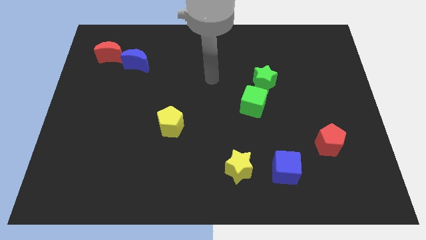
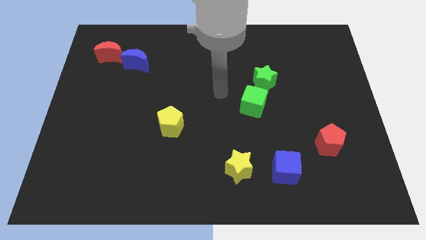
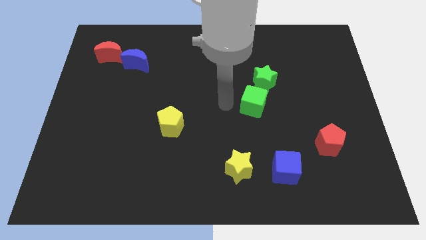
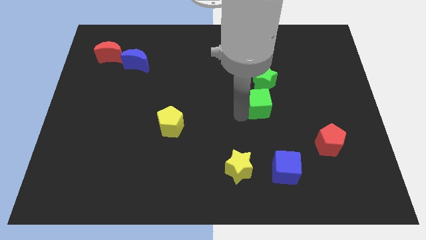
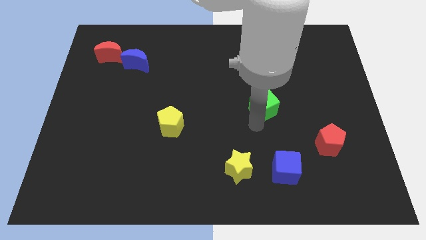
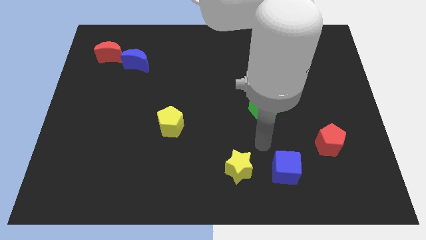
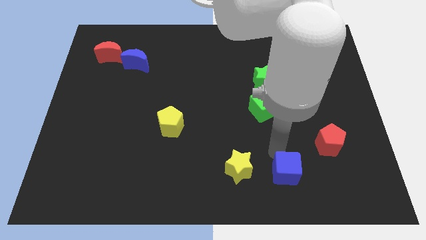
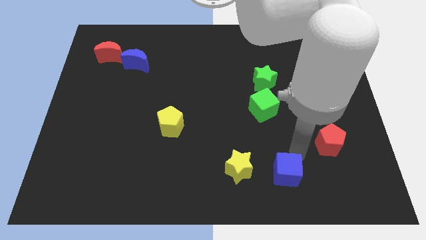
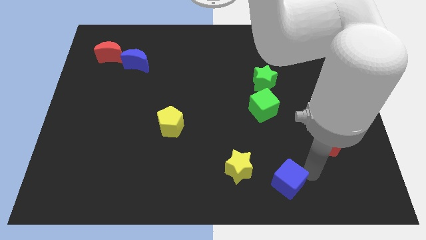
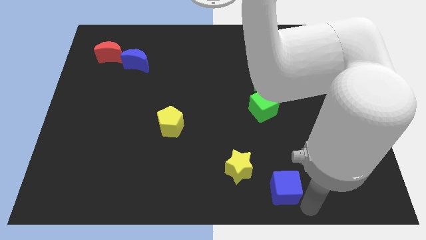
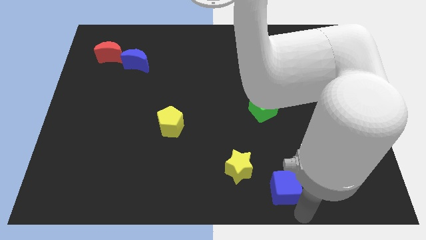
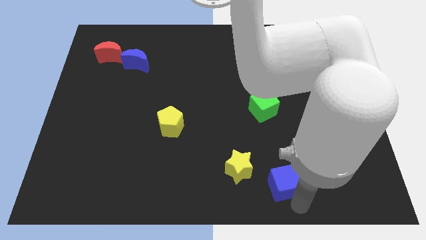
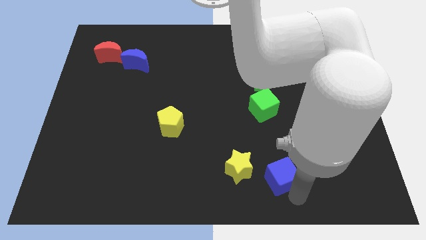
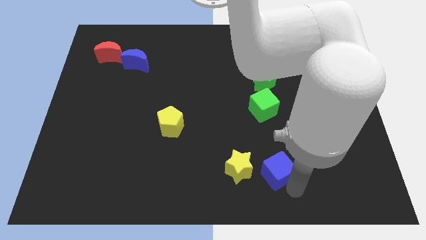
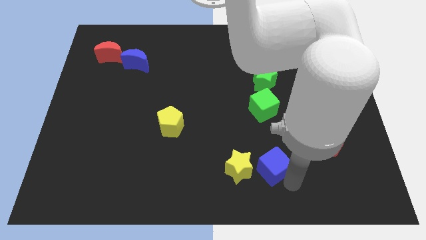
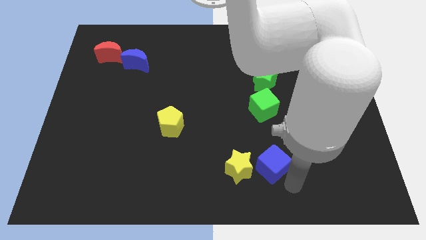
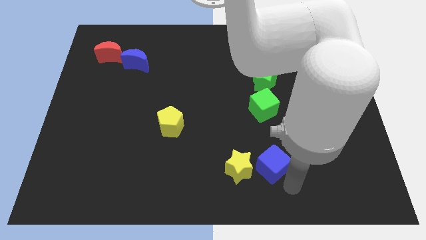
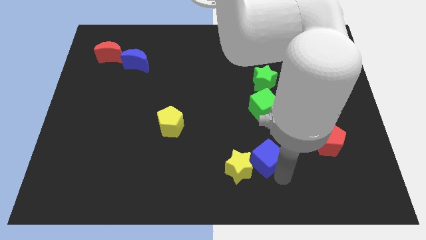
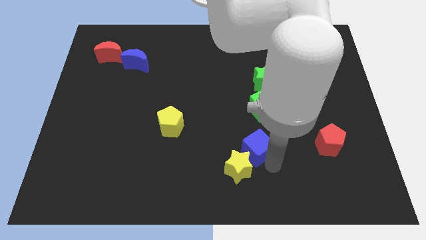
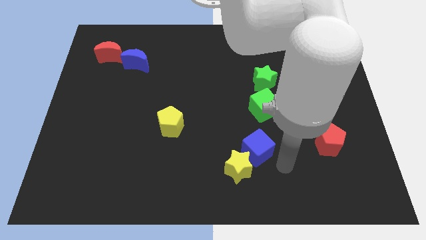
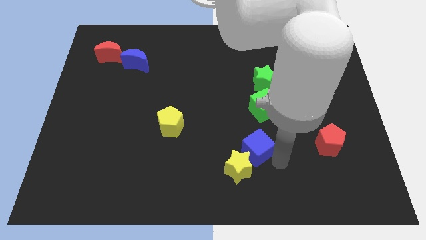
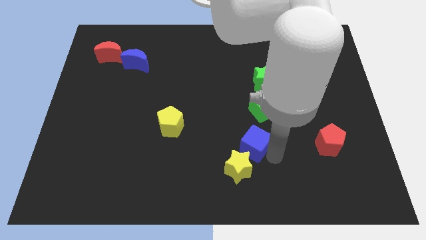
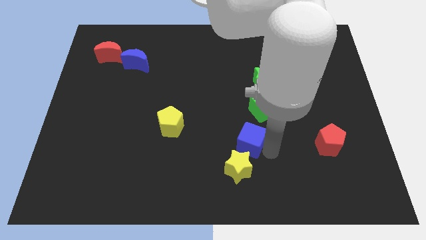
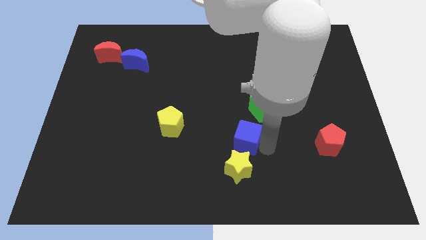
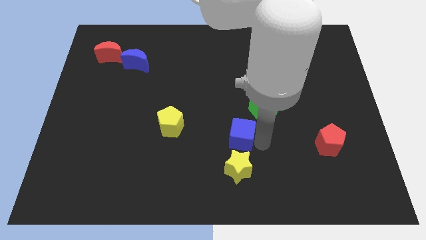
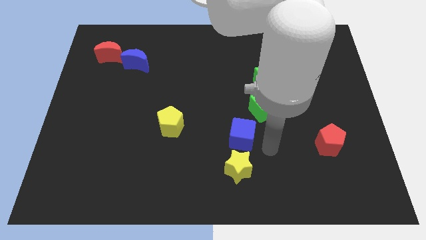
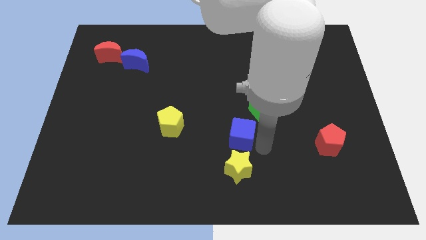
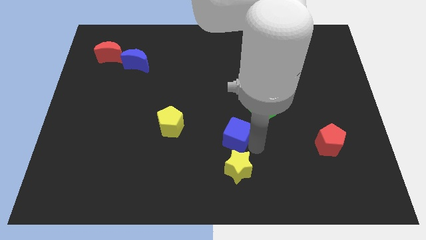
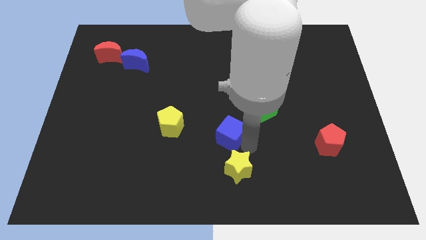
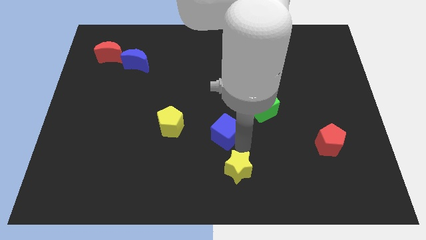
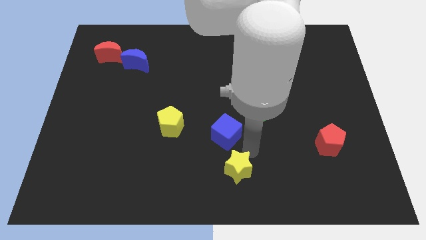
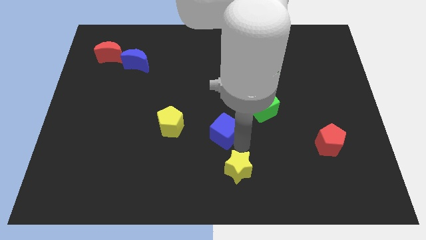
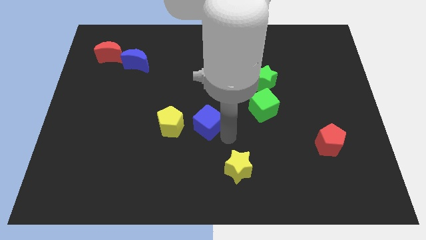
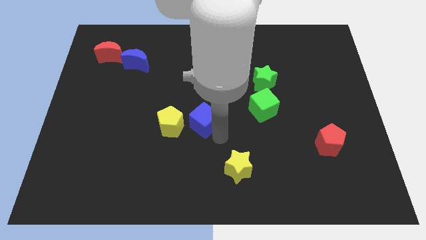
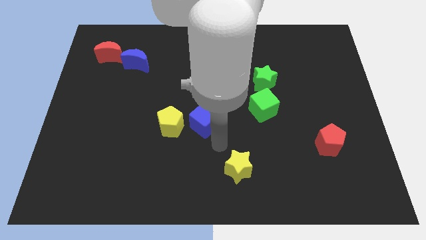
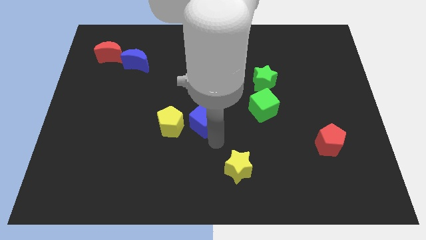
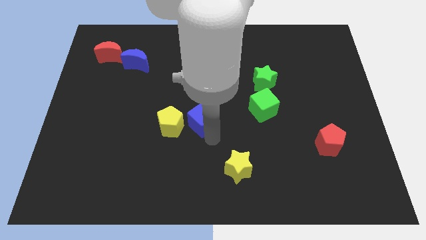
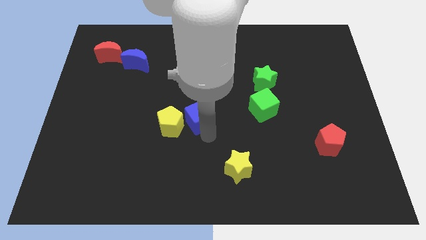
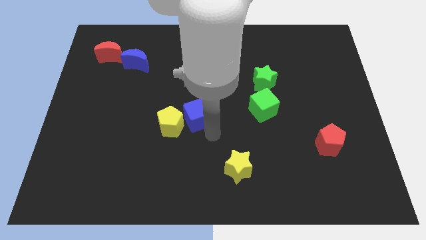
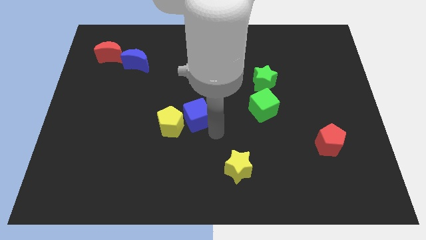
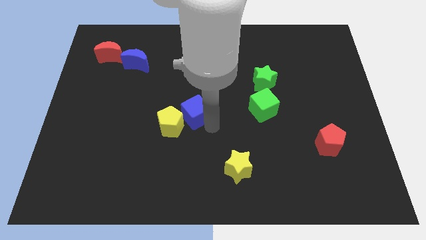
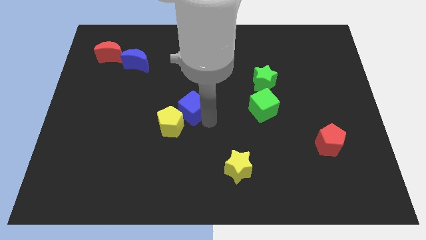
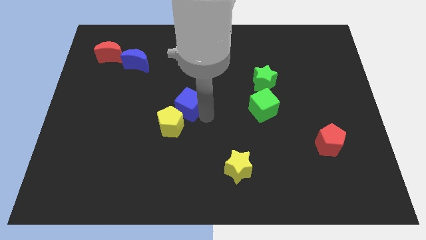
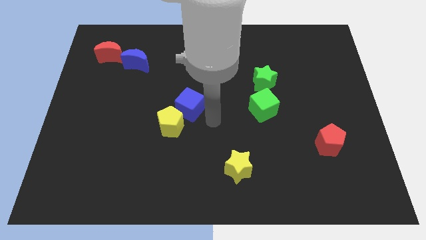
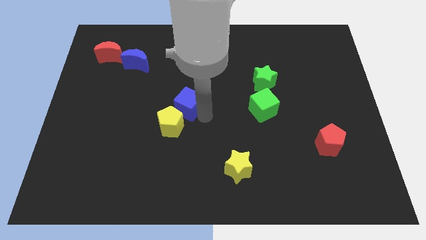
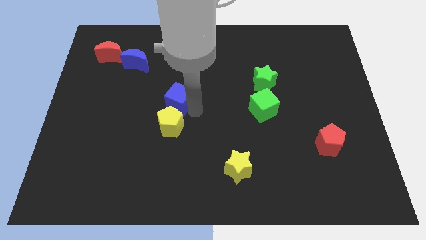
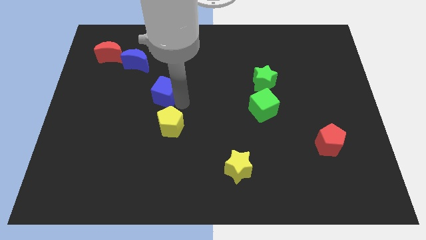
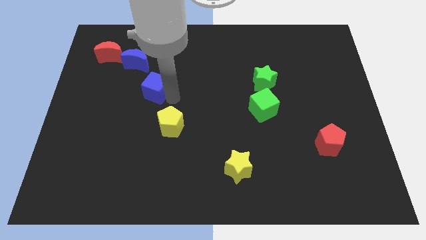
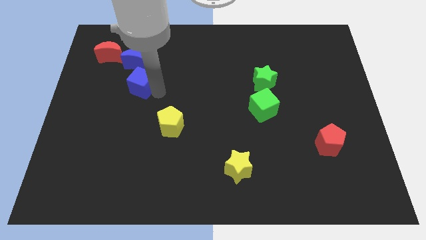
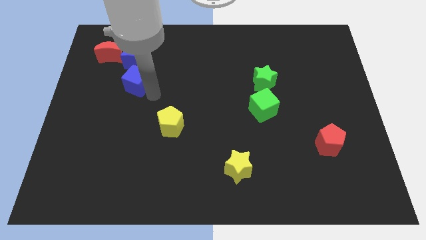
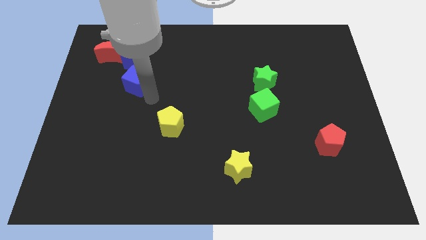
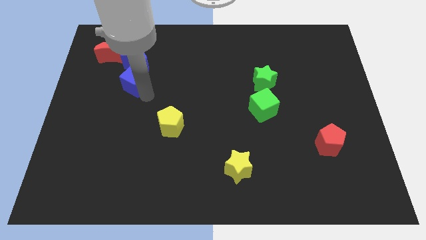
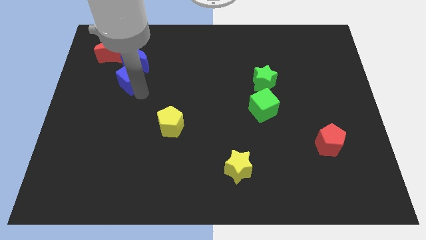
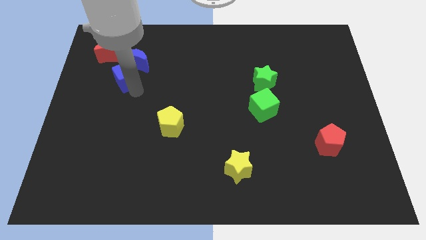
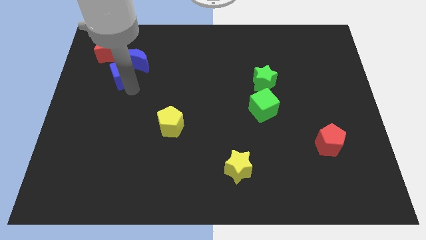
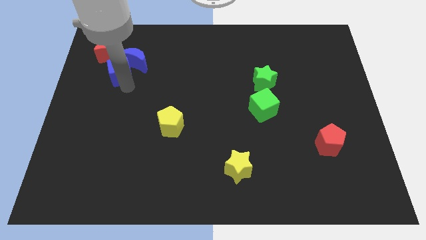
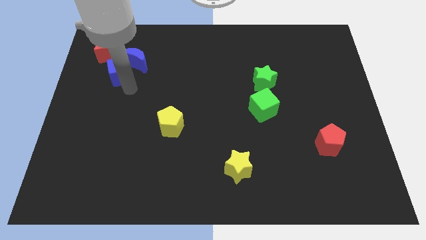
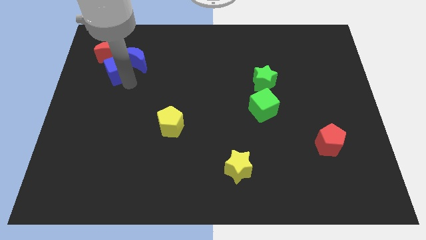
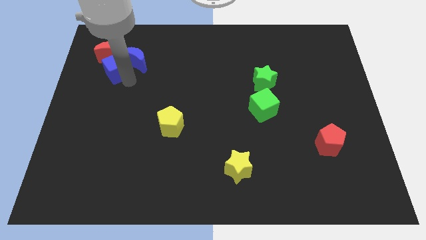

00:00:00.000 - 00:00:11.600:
put the blue cube close to the red moon

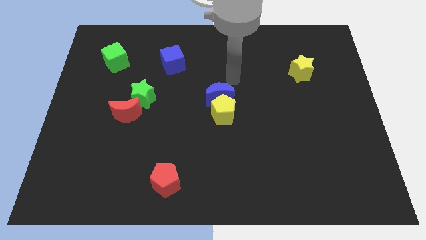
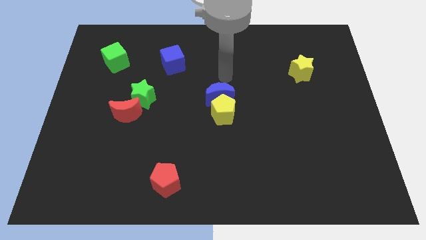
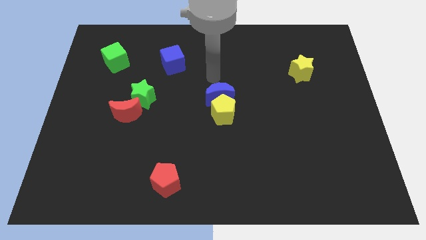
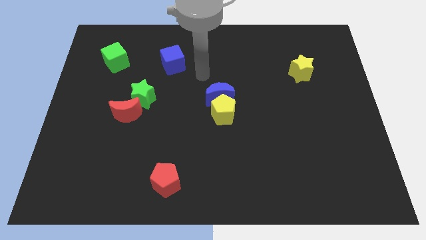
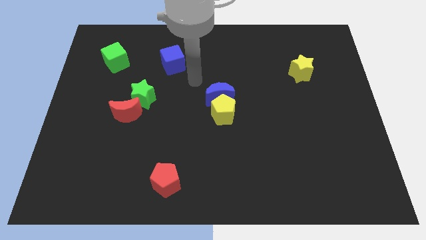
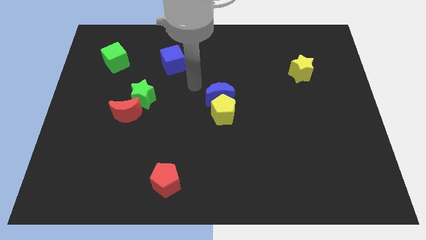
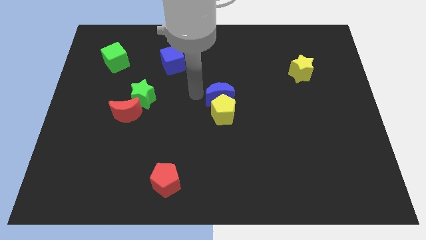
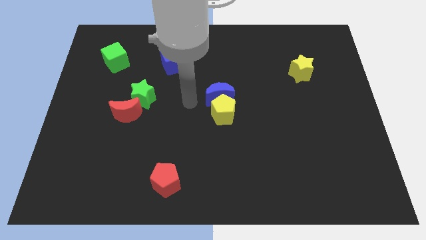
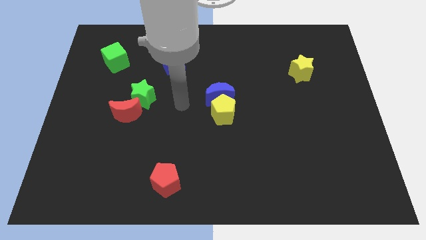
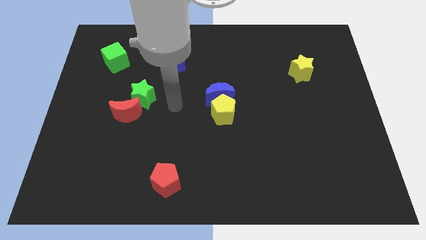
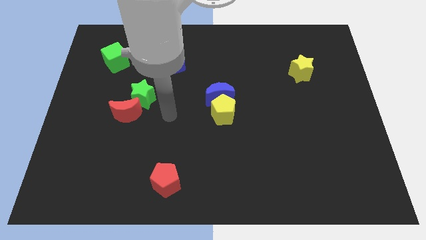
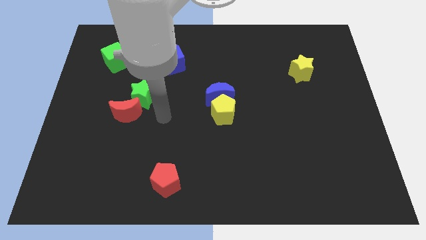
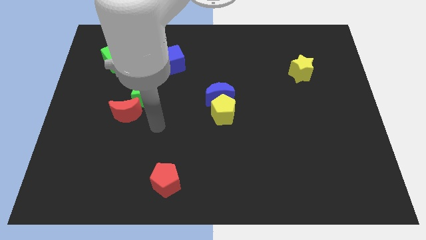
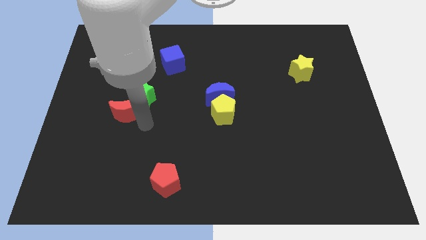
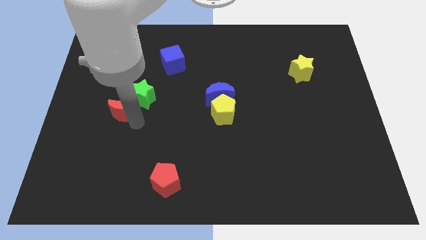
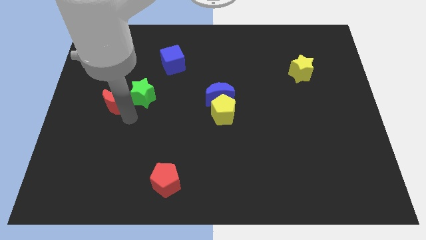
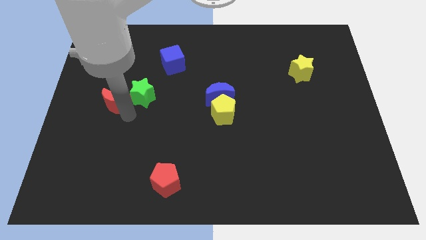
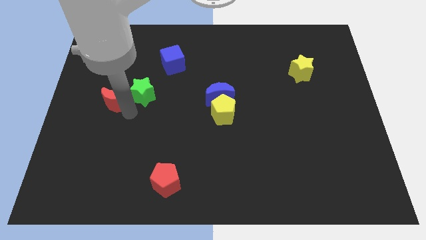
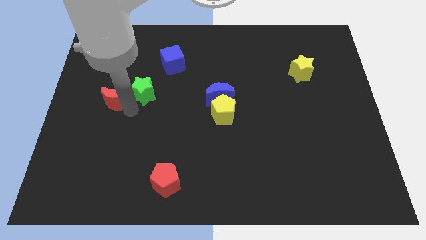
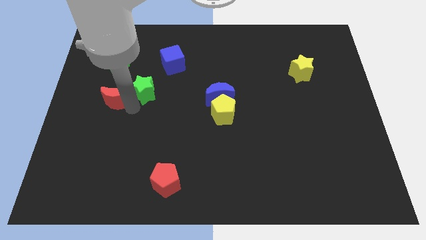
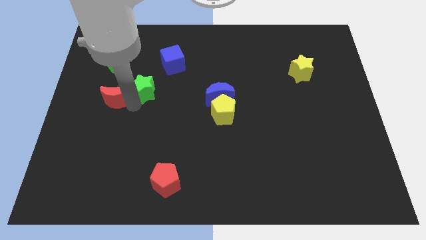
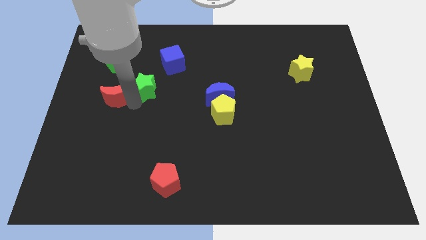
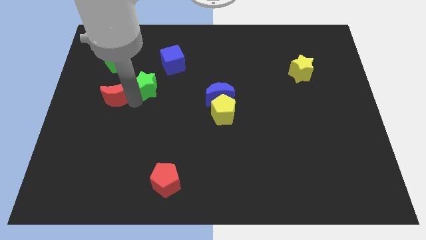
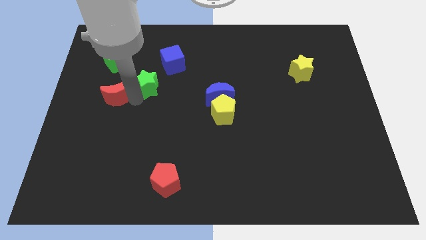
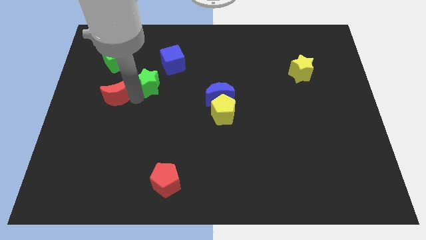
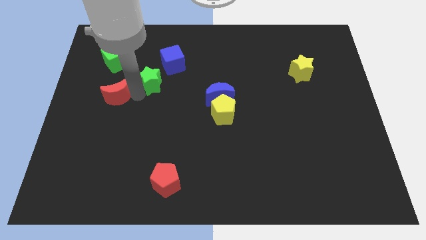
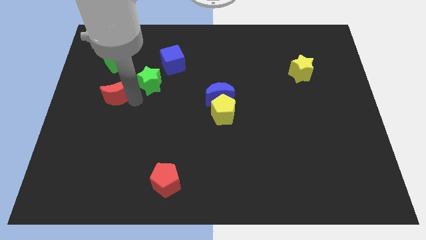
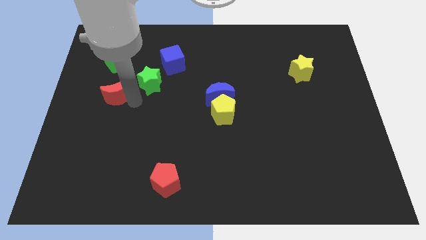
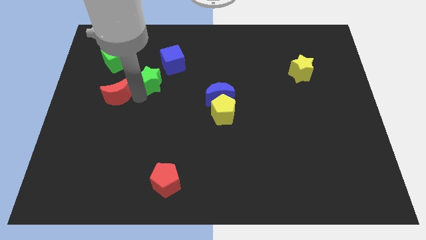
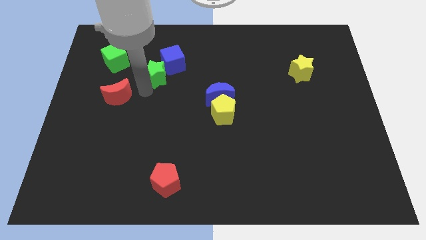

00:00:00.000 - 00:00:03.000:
push the green star next to the blue cube
